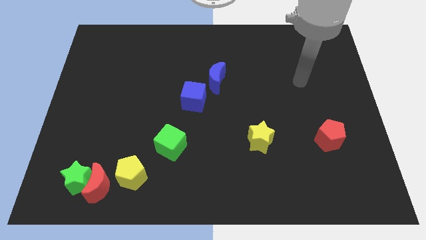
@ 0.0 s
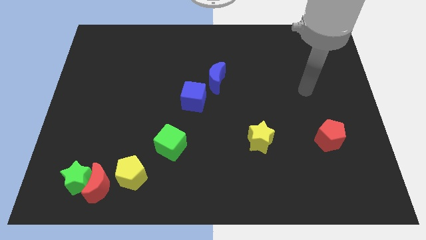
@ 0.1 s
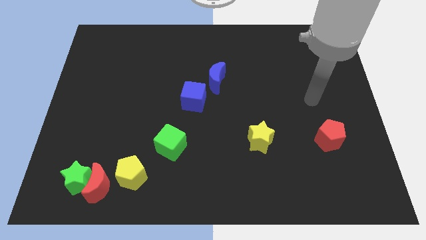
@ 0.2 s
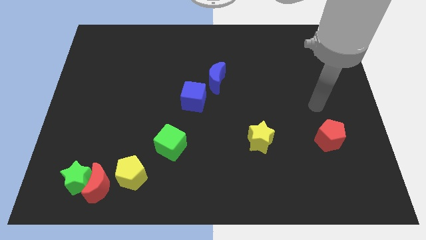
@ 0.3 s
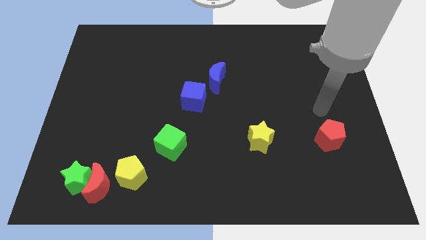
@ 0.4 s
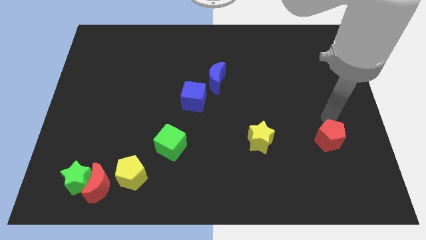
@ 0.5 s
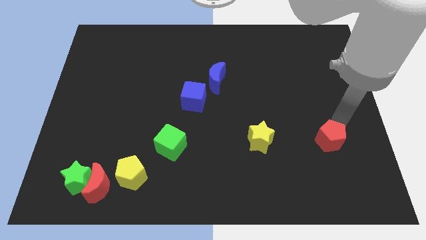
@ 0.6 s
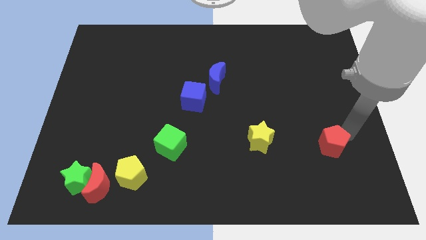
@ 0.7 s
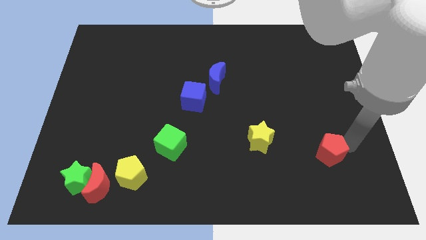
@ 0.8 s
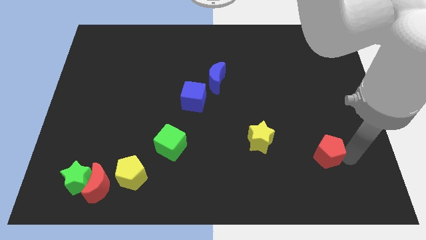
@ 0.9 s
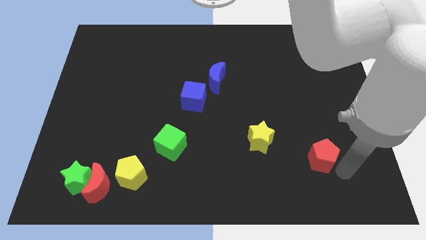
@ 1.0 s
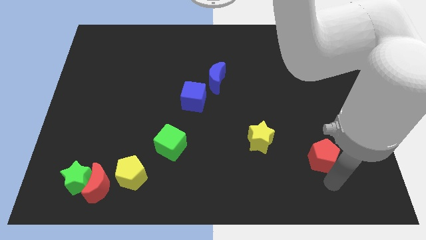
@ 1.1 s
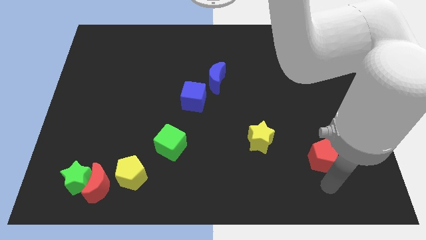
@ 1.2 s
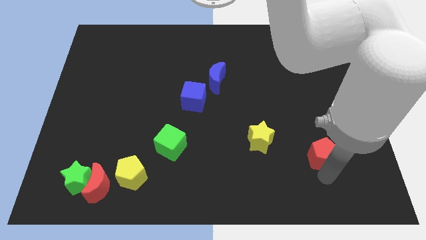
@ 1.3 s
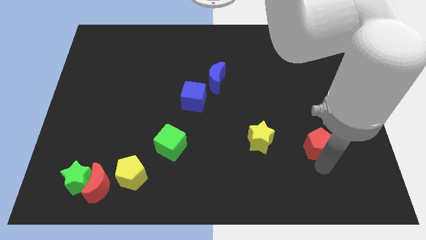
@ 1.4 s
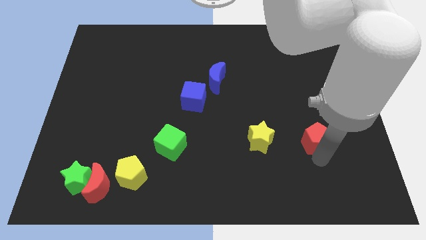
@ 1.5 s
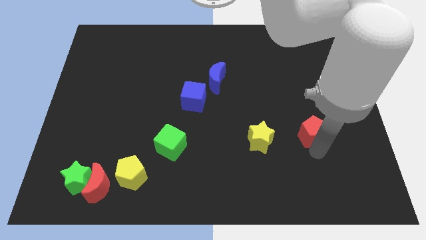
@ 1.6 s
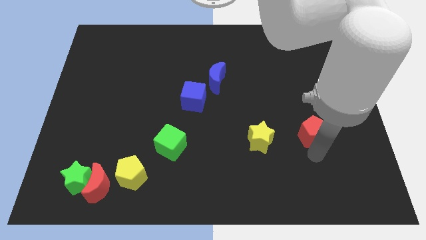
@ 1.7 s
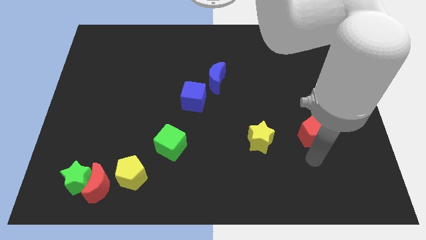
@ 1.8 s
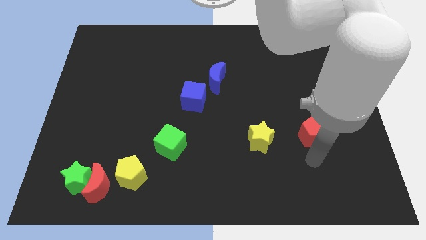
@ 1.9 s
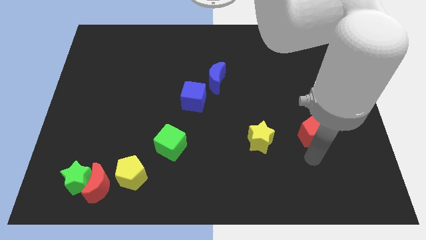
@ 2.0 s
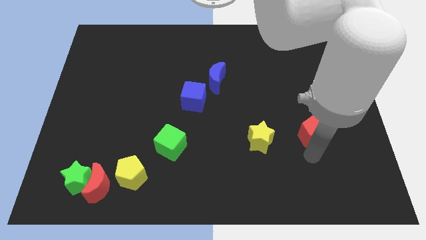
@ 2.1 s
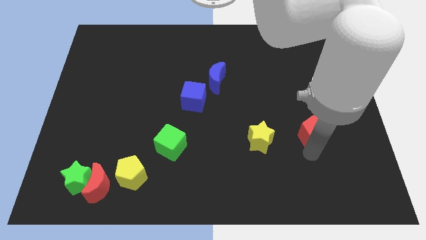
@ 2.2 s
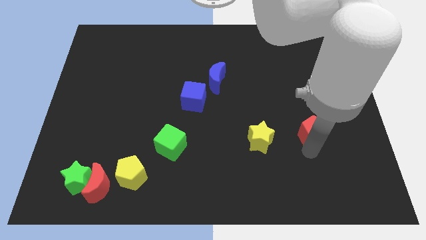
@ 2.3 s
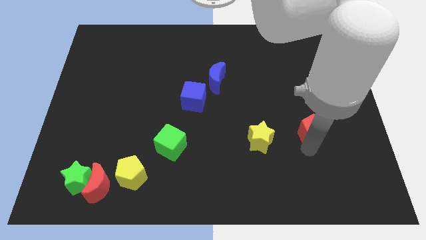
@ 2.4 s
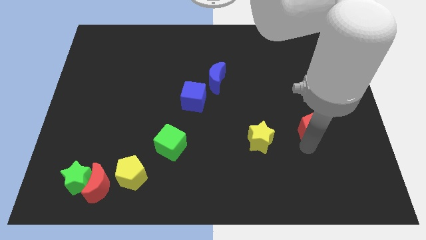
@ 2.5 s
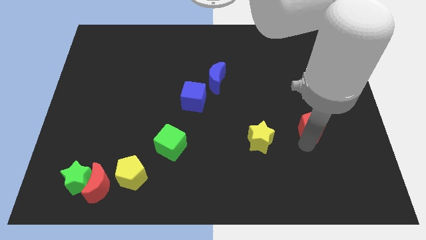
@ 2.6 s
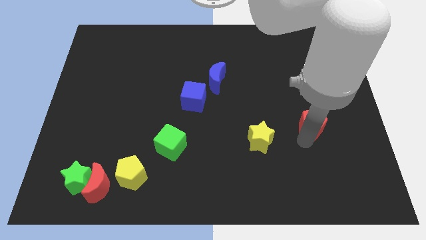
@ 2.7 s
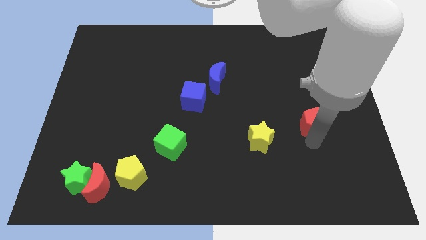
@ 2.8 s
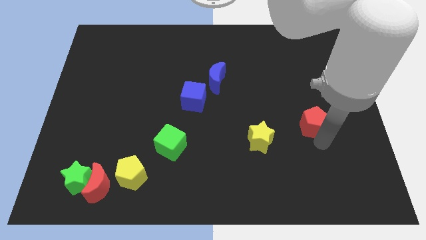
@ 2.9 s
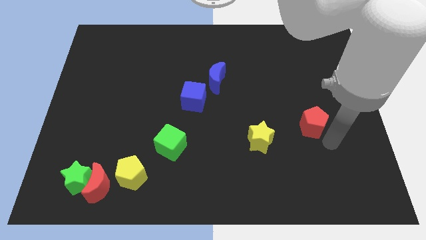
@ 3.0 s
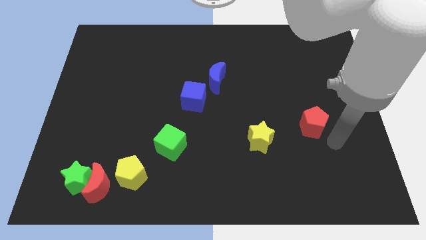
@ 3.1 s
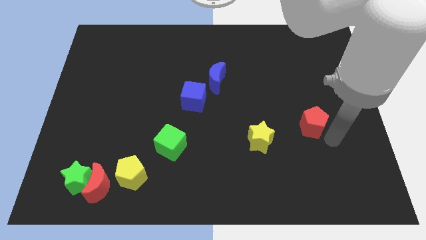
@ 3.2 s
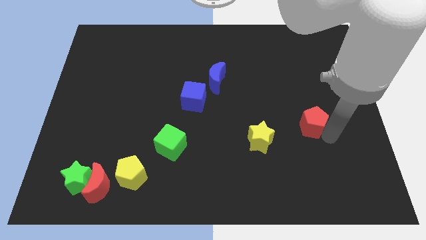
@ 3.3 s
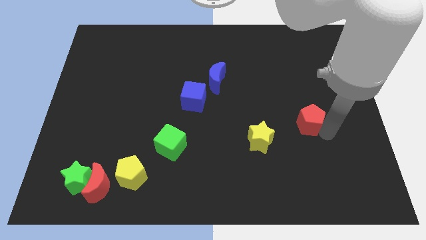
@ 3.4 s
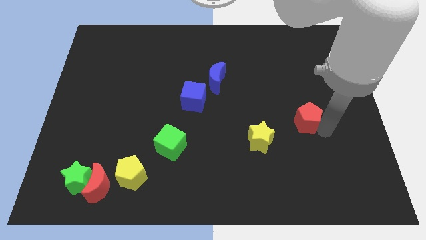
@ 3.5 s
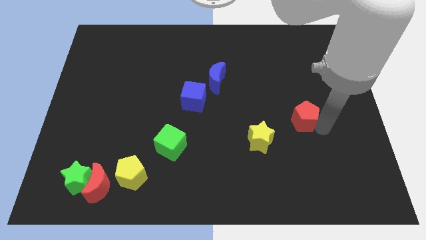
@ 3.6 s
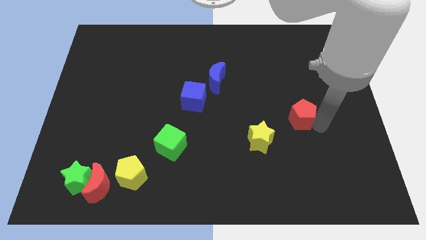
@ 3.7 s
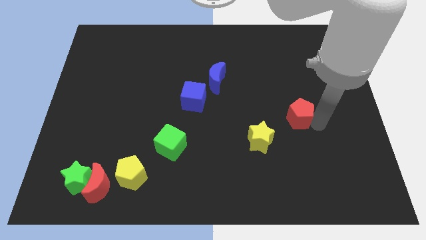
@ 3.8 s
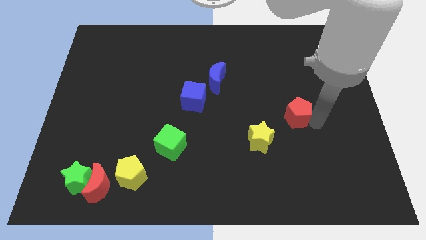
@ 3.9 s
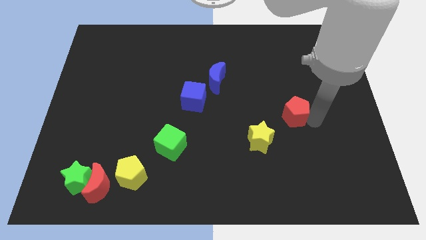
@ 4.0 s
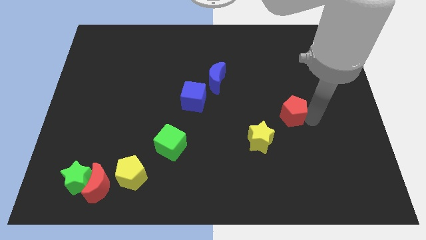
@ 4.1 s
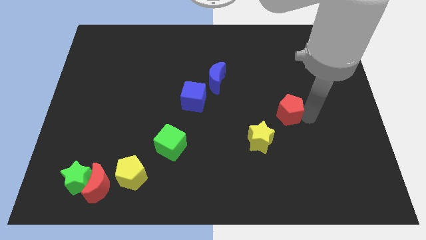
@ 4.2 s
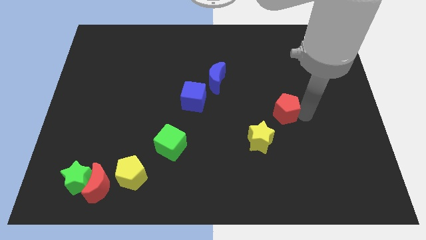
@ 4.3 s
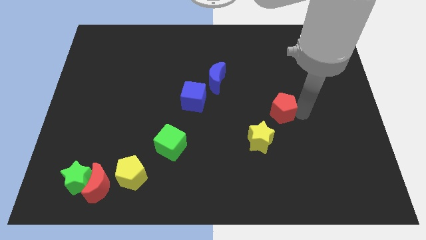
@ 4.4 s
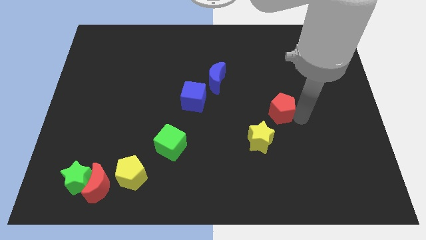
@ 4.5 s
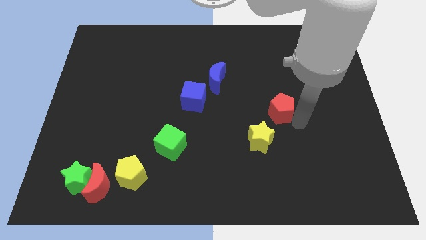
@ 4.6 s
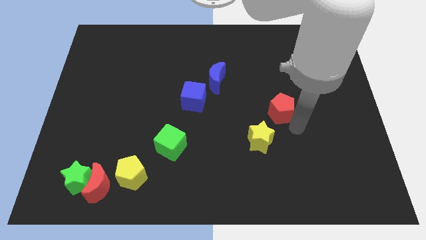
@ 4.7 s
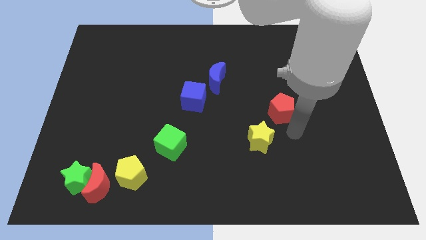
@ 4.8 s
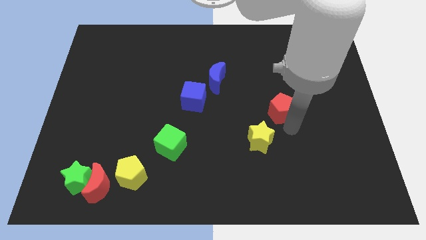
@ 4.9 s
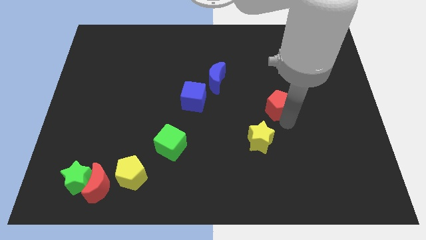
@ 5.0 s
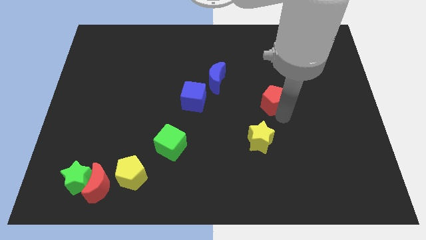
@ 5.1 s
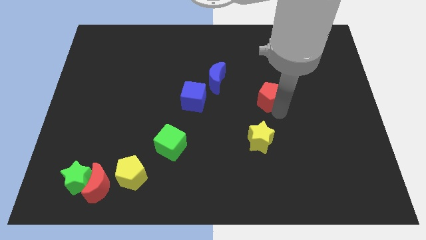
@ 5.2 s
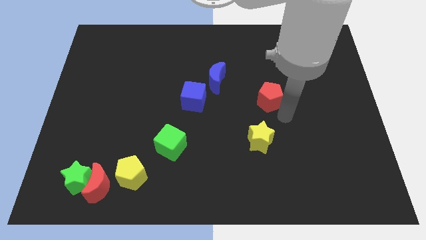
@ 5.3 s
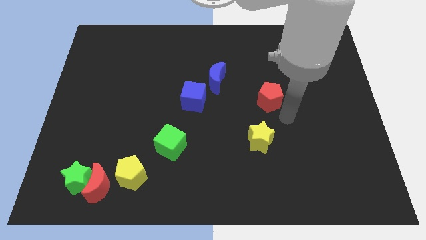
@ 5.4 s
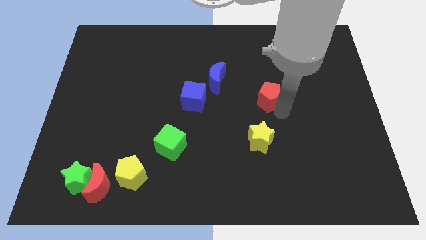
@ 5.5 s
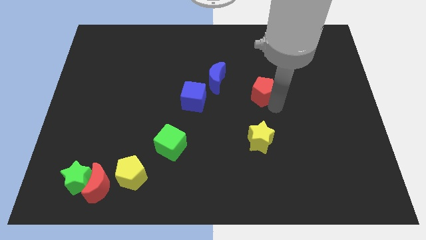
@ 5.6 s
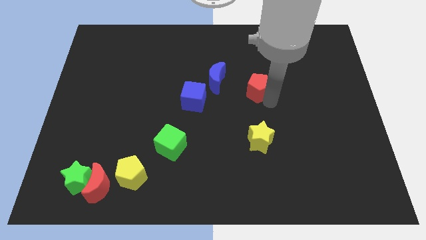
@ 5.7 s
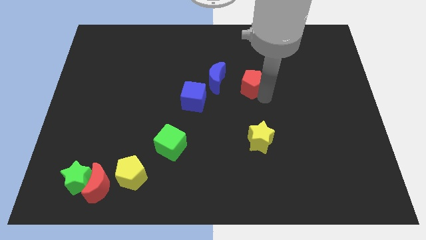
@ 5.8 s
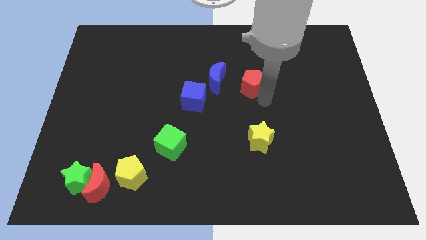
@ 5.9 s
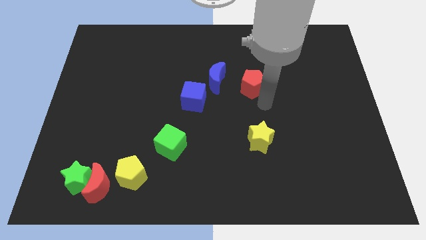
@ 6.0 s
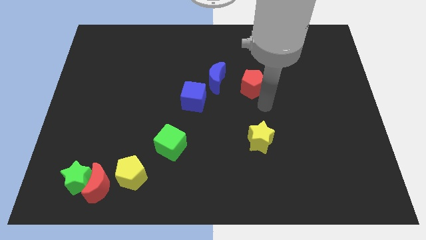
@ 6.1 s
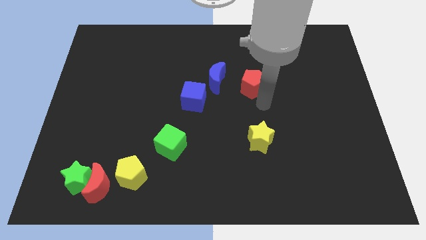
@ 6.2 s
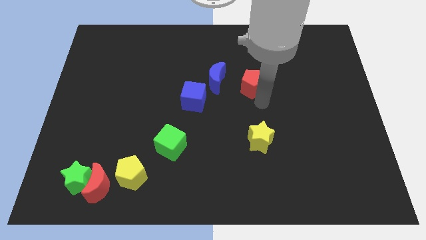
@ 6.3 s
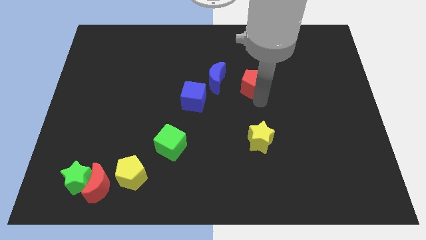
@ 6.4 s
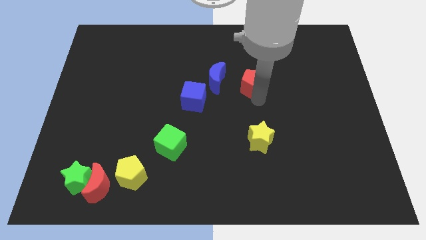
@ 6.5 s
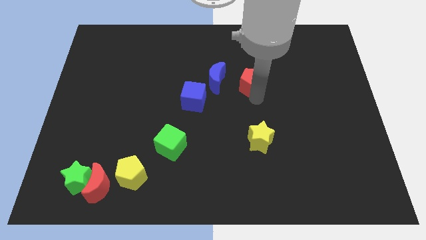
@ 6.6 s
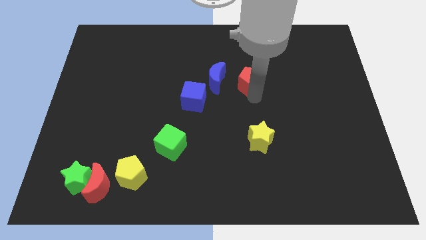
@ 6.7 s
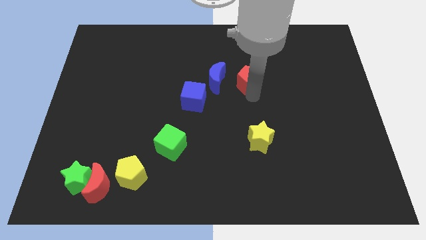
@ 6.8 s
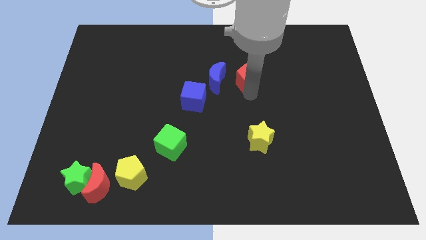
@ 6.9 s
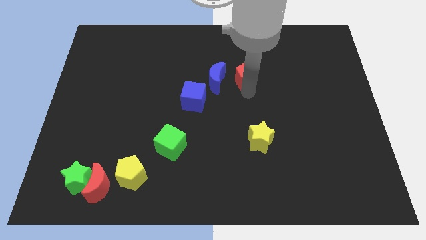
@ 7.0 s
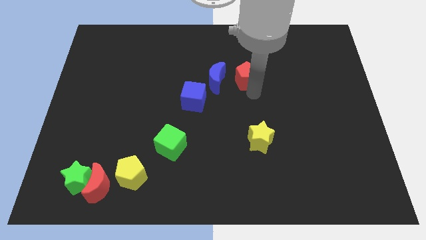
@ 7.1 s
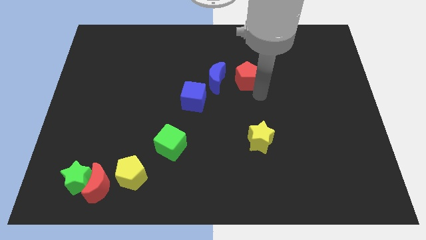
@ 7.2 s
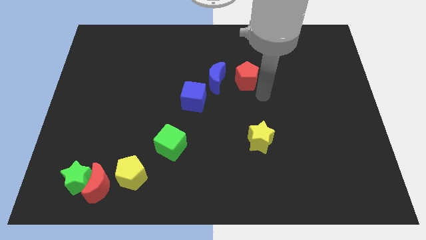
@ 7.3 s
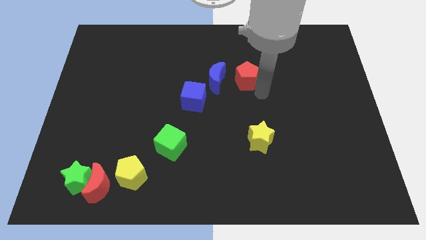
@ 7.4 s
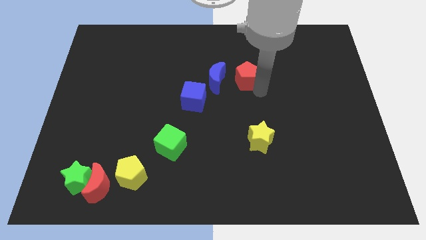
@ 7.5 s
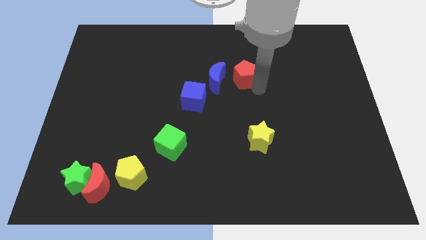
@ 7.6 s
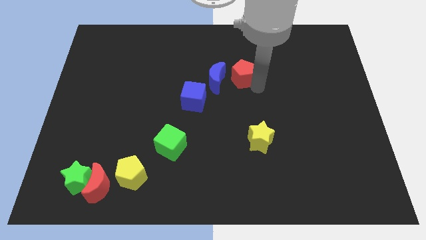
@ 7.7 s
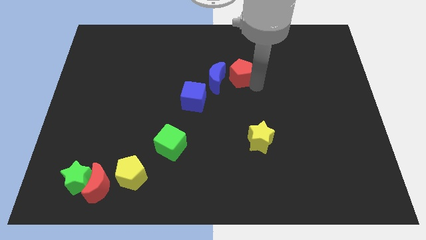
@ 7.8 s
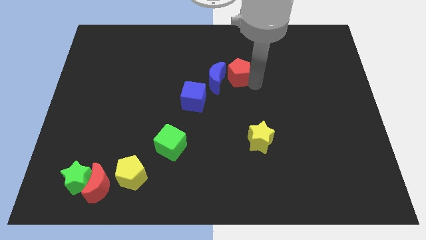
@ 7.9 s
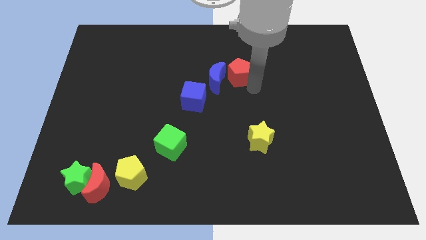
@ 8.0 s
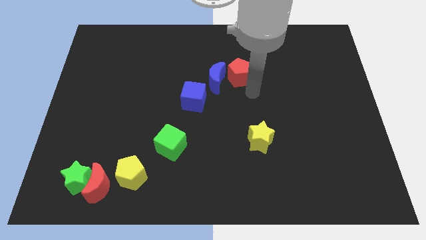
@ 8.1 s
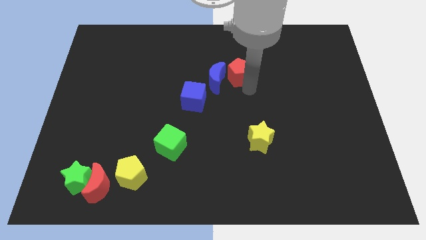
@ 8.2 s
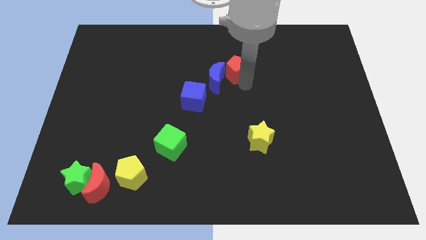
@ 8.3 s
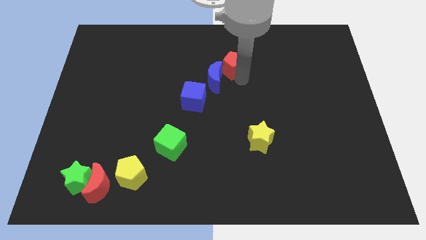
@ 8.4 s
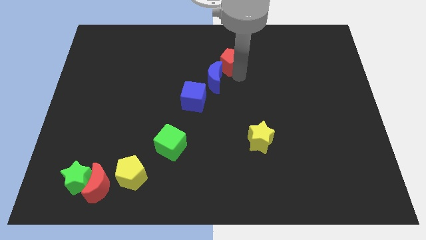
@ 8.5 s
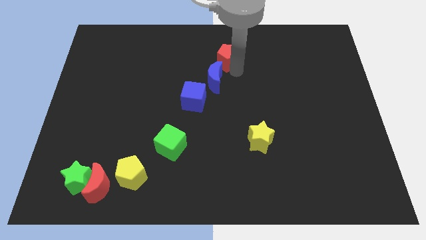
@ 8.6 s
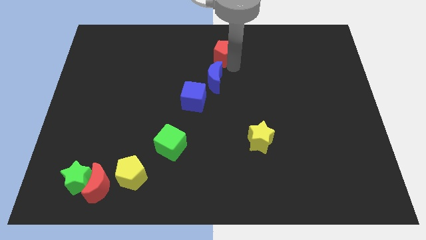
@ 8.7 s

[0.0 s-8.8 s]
push the red pentagon to the top
